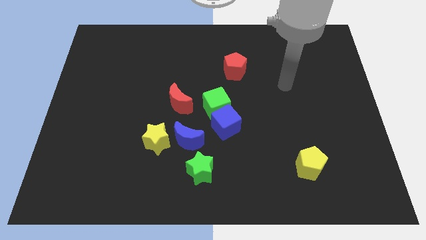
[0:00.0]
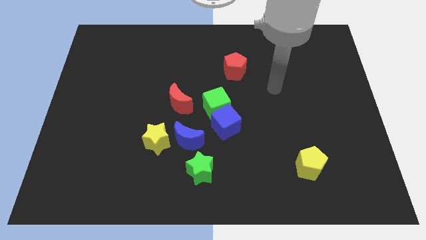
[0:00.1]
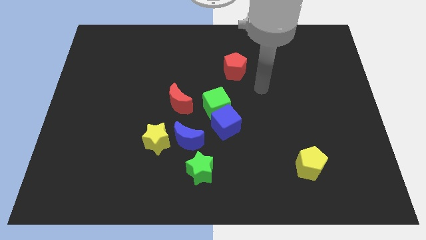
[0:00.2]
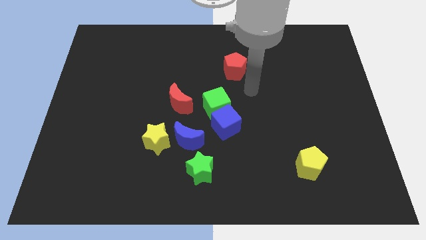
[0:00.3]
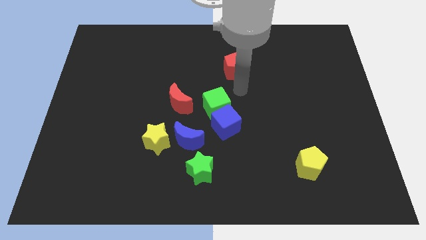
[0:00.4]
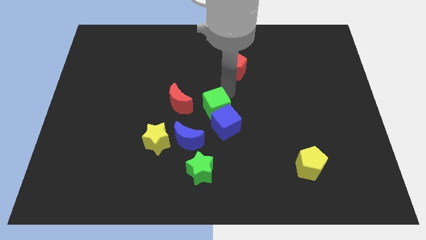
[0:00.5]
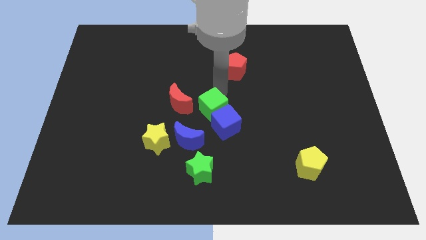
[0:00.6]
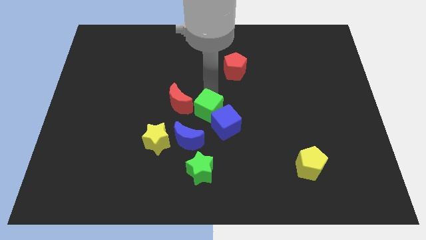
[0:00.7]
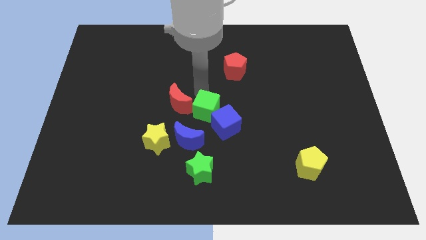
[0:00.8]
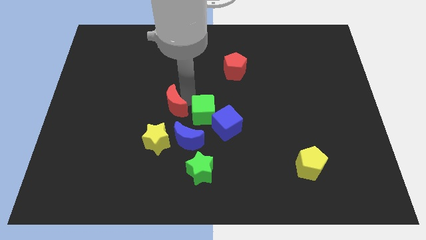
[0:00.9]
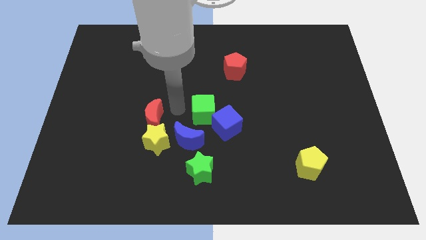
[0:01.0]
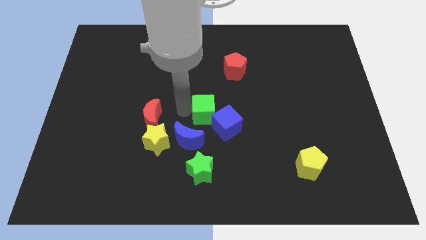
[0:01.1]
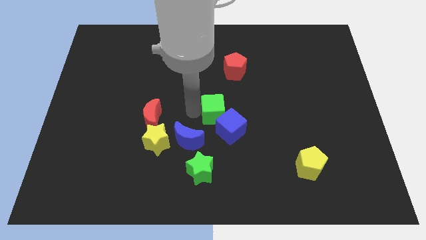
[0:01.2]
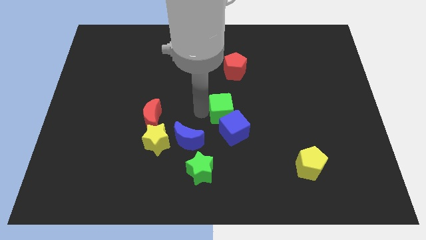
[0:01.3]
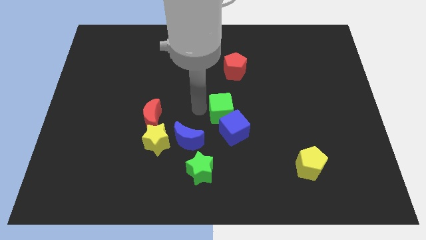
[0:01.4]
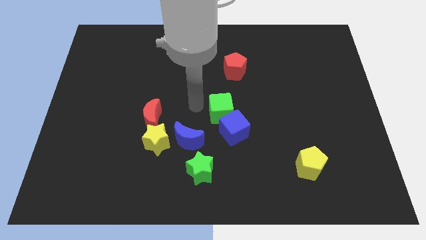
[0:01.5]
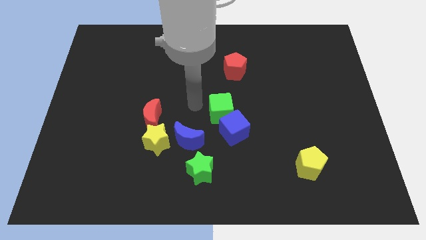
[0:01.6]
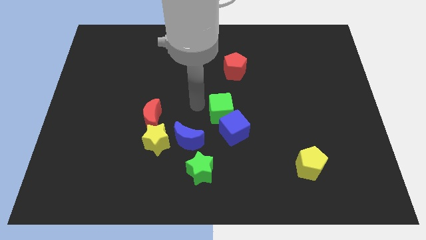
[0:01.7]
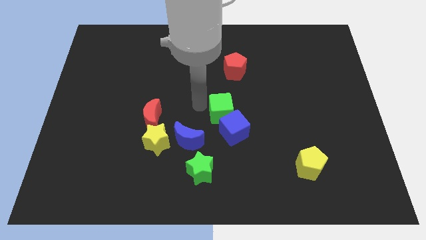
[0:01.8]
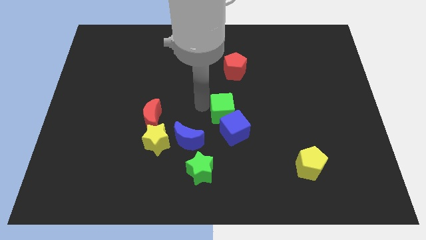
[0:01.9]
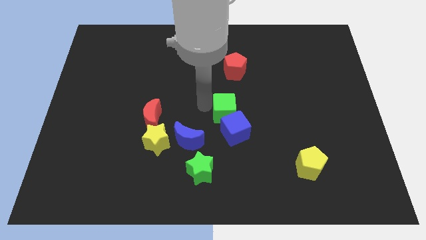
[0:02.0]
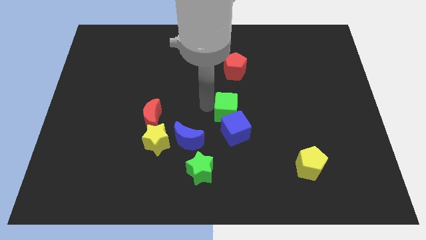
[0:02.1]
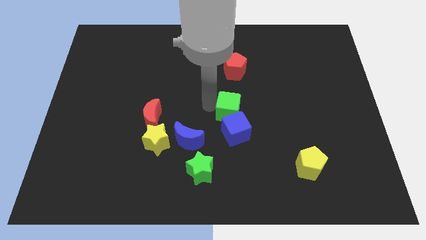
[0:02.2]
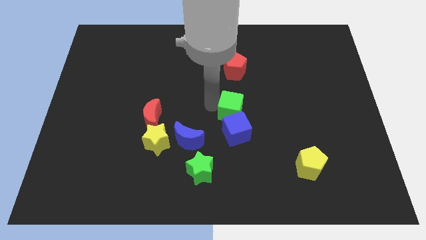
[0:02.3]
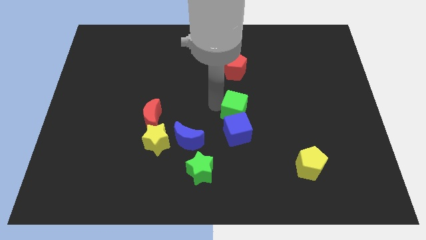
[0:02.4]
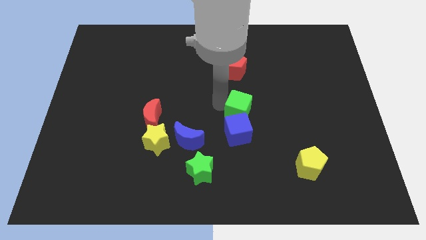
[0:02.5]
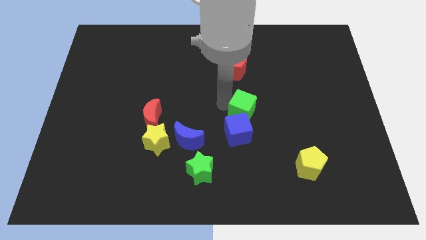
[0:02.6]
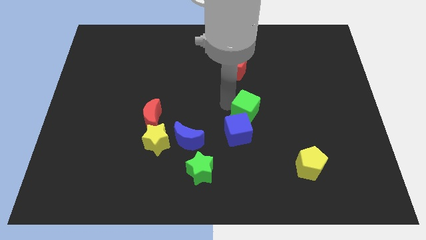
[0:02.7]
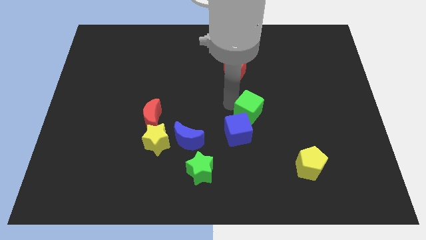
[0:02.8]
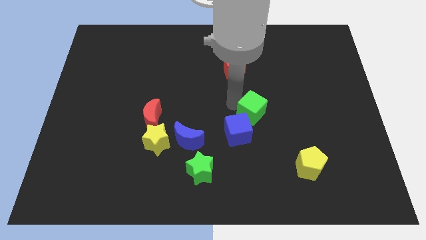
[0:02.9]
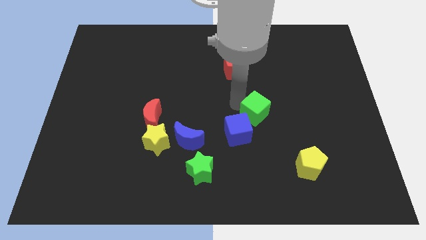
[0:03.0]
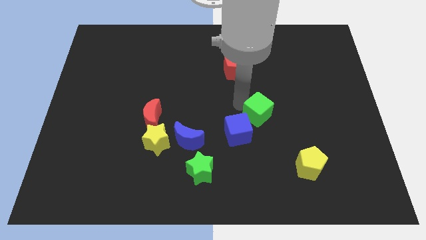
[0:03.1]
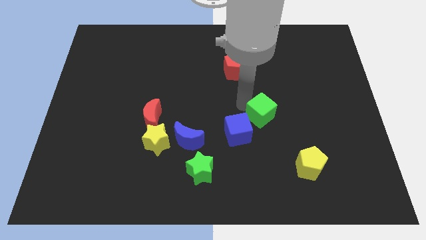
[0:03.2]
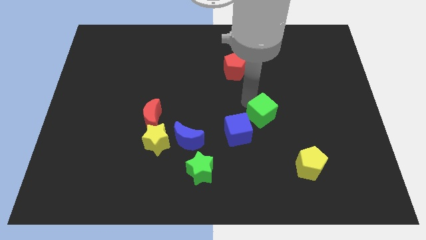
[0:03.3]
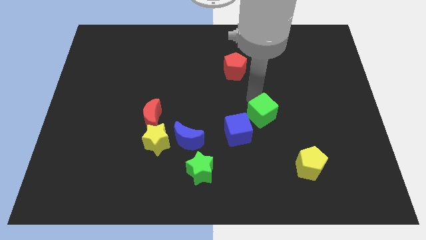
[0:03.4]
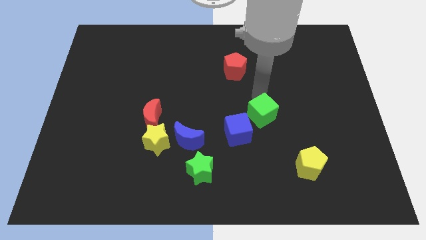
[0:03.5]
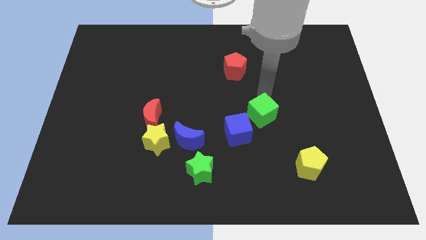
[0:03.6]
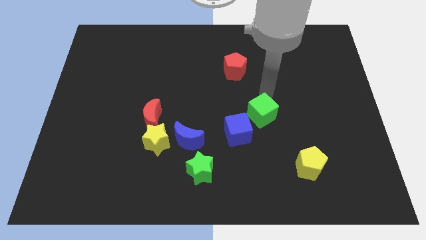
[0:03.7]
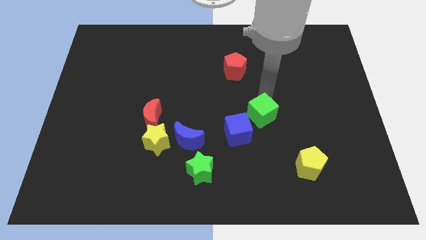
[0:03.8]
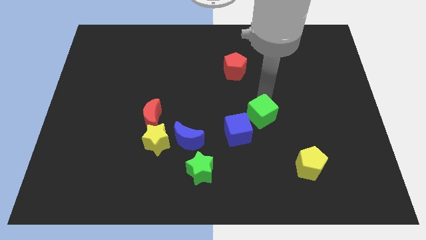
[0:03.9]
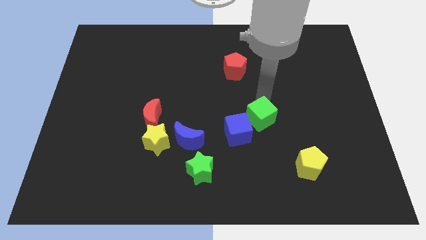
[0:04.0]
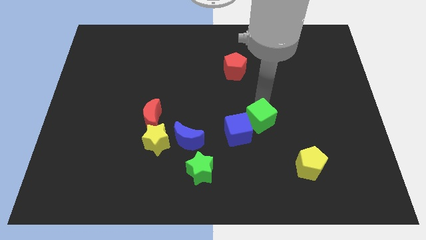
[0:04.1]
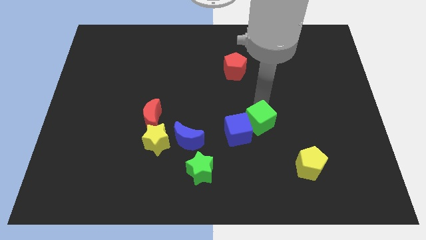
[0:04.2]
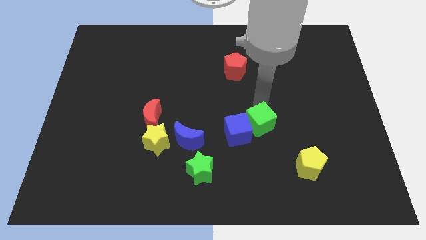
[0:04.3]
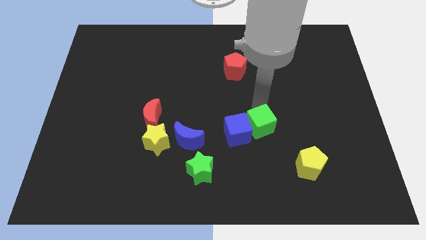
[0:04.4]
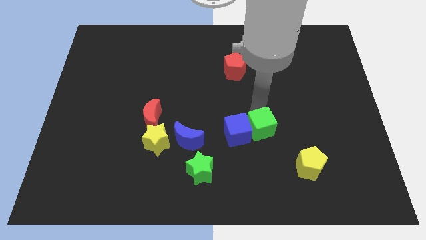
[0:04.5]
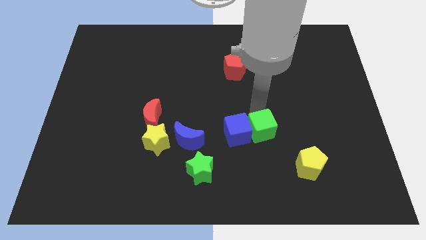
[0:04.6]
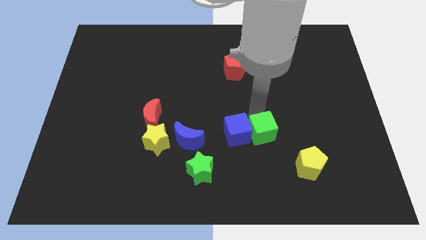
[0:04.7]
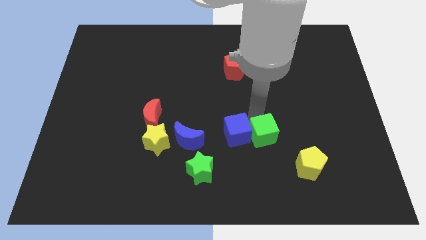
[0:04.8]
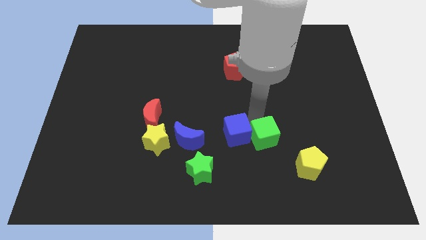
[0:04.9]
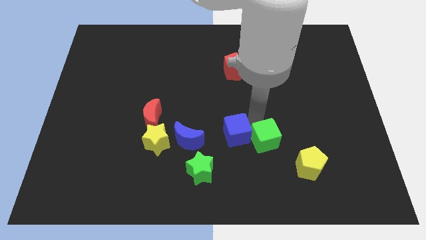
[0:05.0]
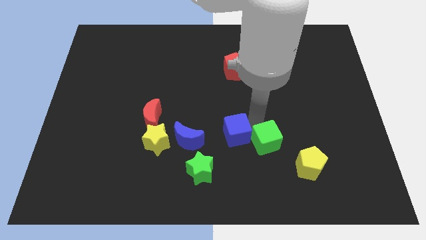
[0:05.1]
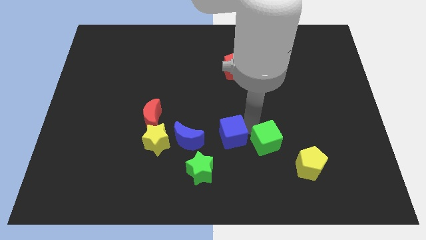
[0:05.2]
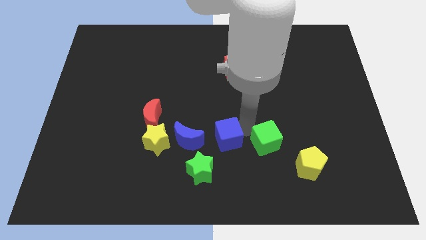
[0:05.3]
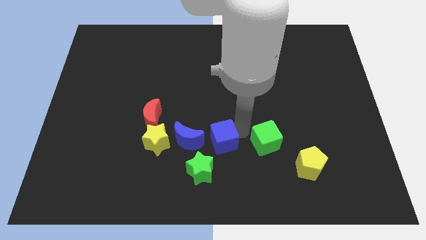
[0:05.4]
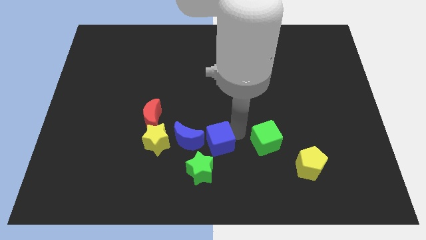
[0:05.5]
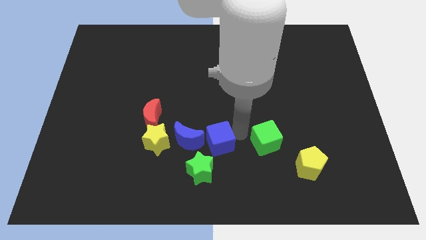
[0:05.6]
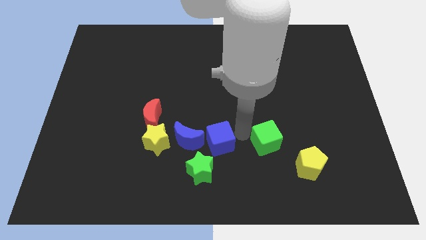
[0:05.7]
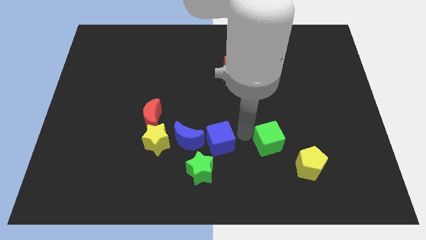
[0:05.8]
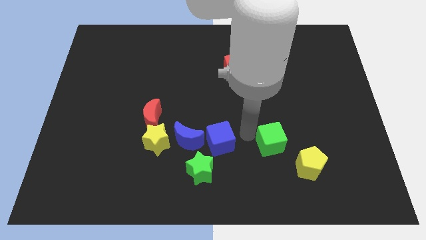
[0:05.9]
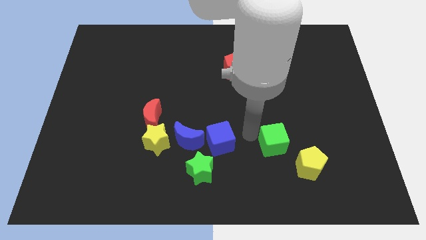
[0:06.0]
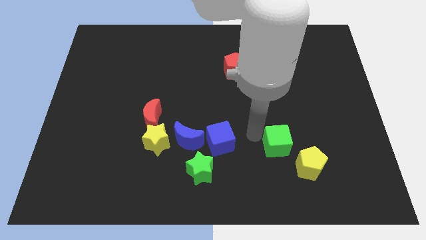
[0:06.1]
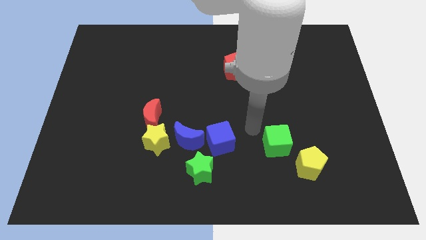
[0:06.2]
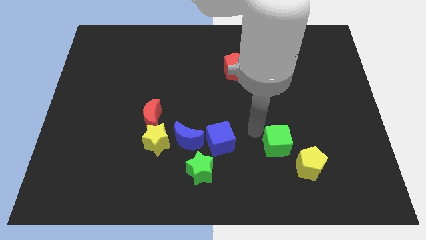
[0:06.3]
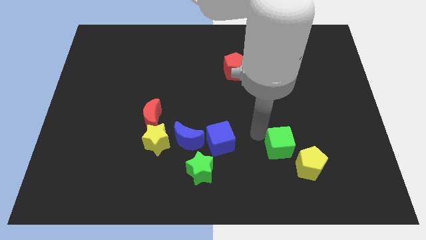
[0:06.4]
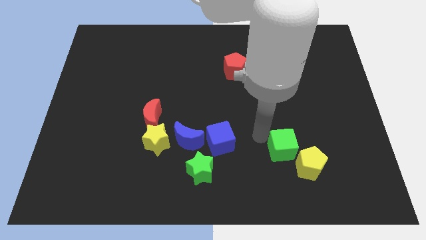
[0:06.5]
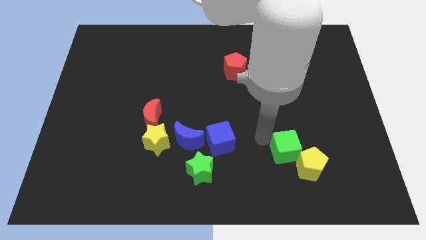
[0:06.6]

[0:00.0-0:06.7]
put the green cube close to the yellow pentagon

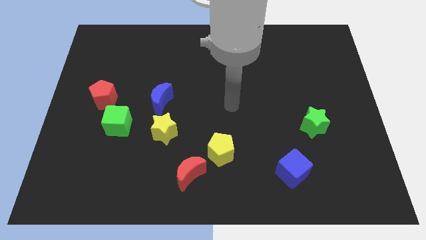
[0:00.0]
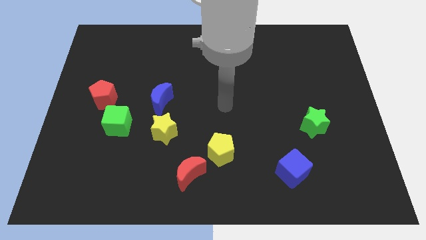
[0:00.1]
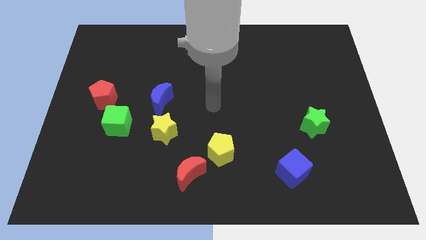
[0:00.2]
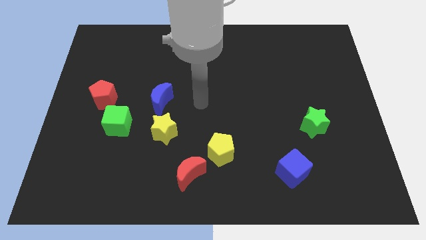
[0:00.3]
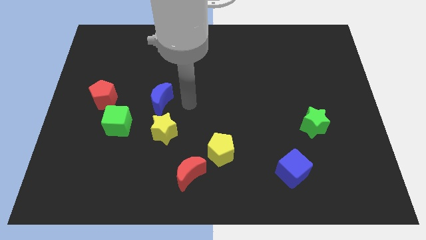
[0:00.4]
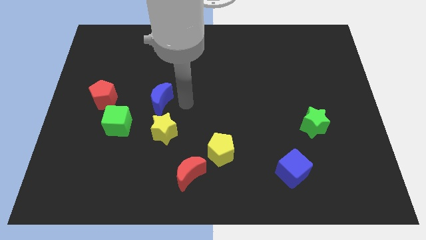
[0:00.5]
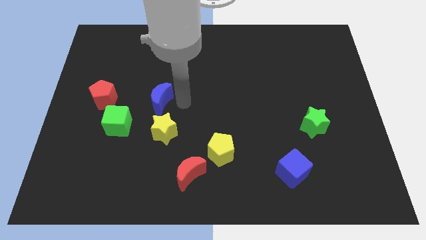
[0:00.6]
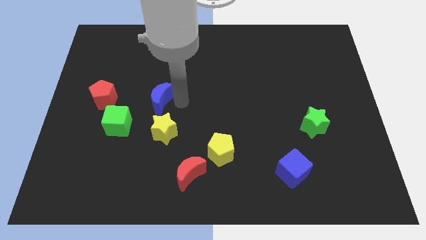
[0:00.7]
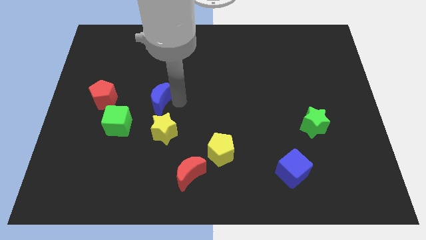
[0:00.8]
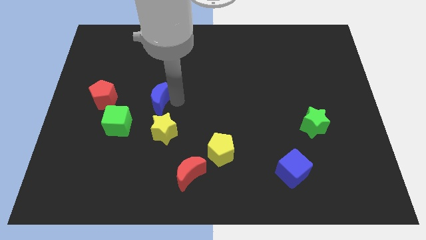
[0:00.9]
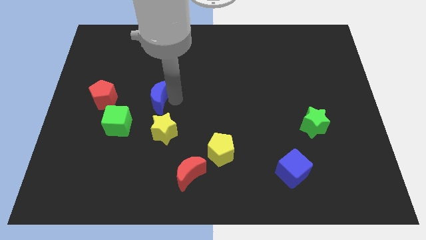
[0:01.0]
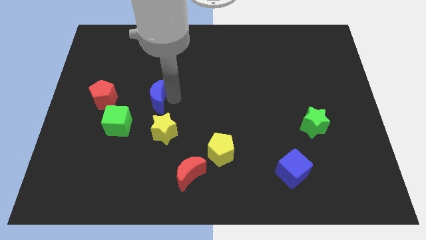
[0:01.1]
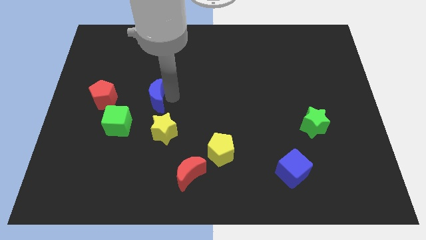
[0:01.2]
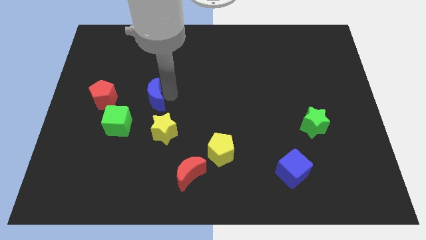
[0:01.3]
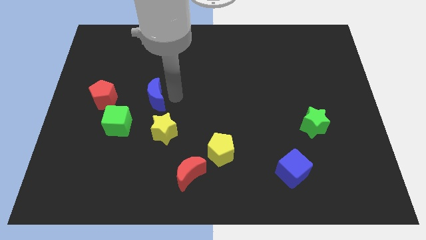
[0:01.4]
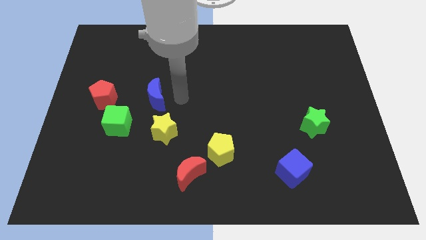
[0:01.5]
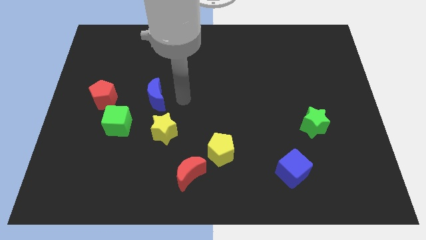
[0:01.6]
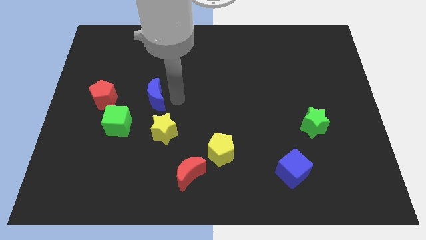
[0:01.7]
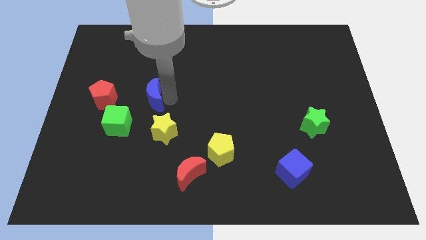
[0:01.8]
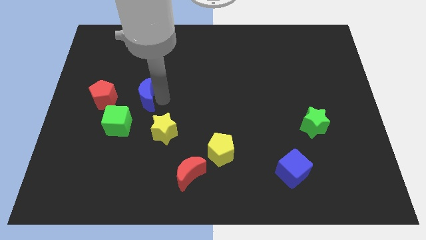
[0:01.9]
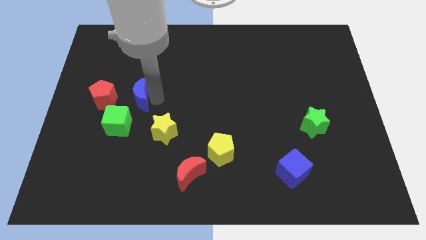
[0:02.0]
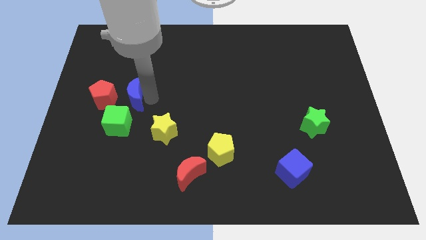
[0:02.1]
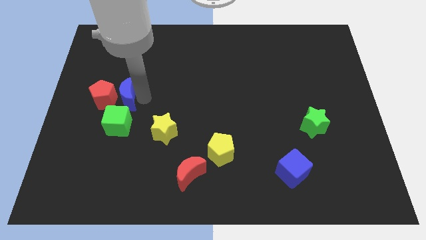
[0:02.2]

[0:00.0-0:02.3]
move the blue moon towards the red pentagon
